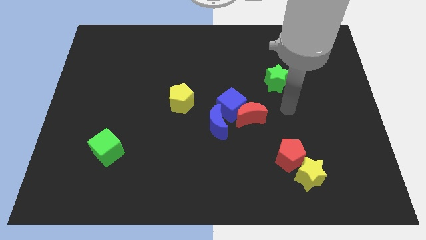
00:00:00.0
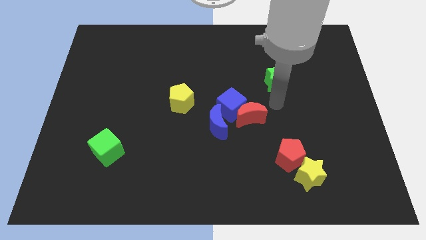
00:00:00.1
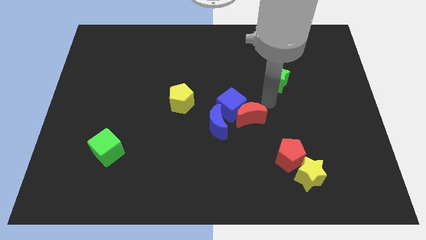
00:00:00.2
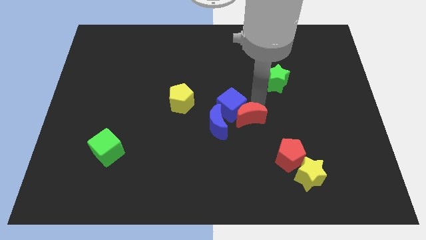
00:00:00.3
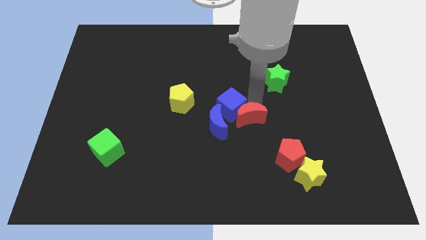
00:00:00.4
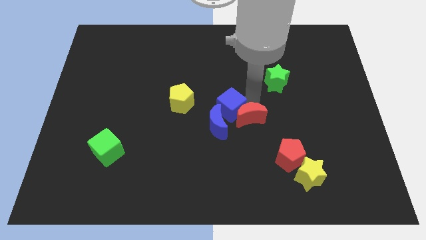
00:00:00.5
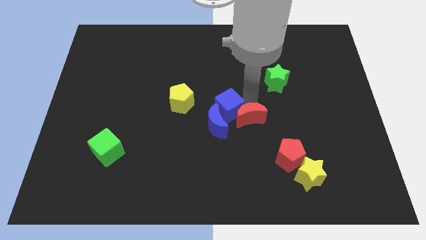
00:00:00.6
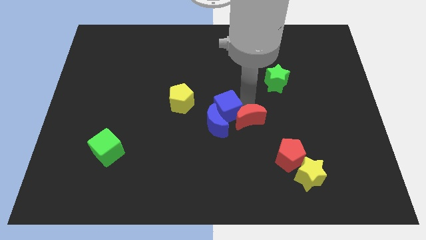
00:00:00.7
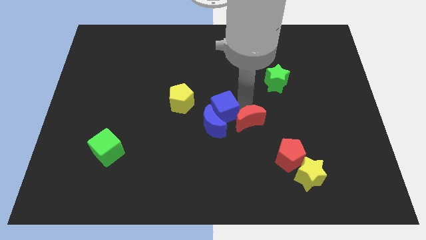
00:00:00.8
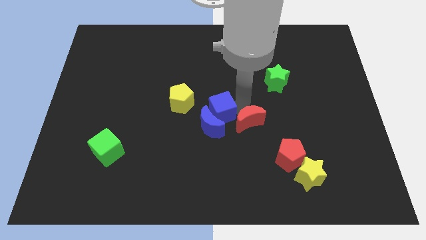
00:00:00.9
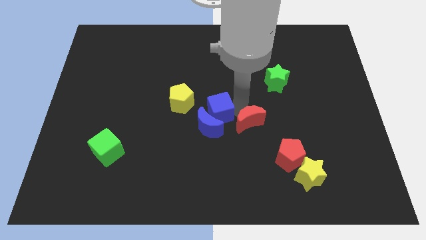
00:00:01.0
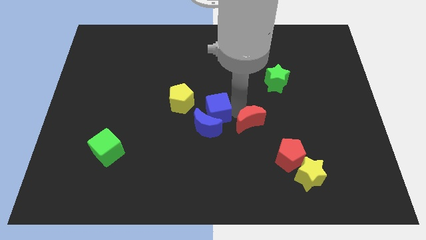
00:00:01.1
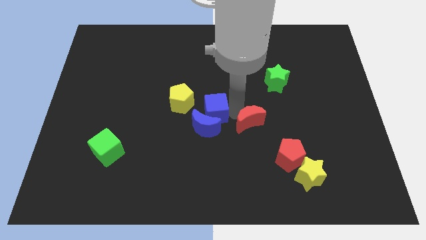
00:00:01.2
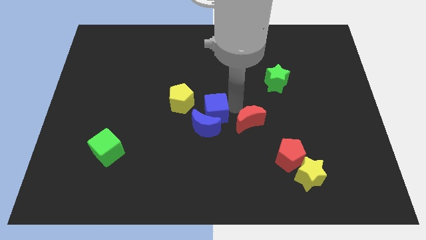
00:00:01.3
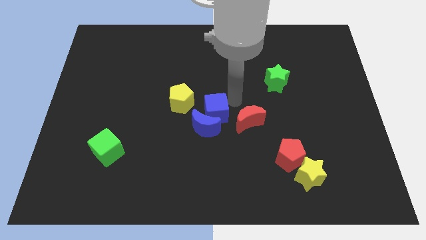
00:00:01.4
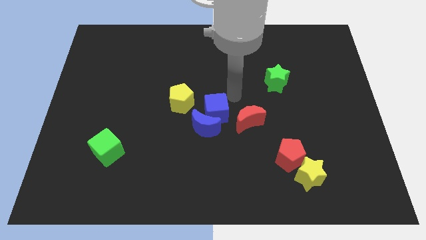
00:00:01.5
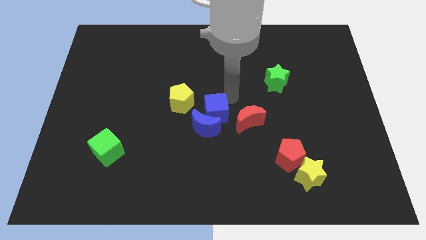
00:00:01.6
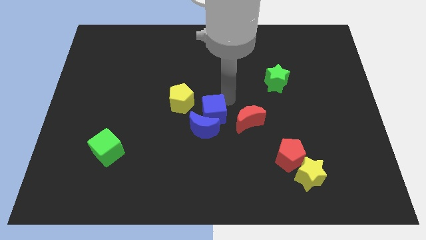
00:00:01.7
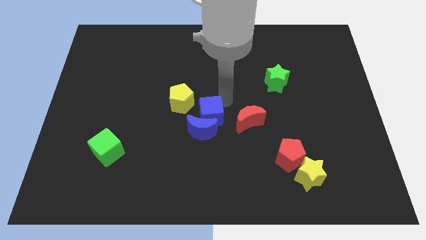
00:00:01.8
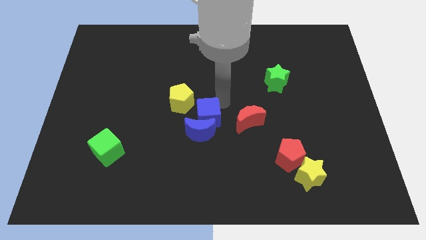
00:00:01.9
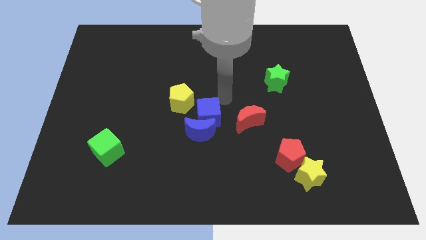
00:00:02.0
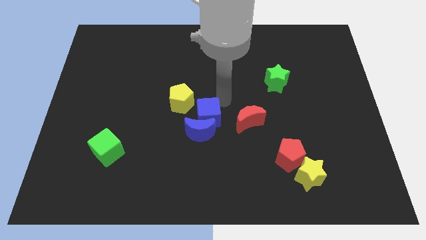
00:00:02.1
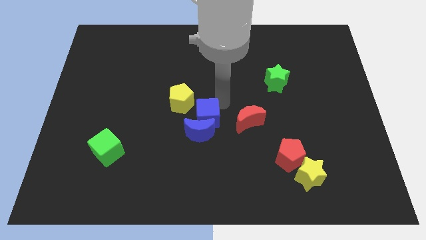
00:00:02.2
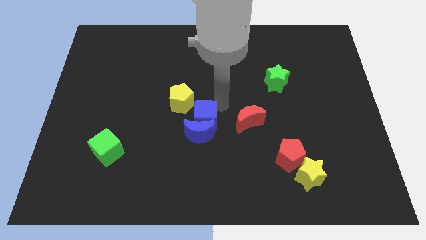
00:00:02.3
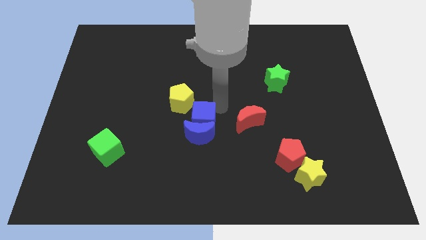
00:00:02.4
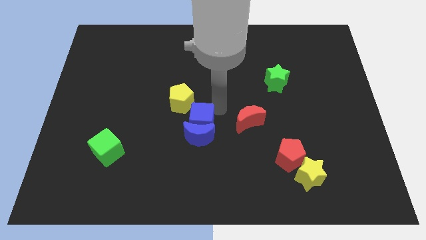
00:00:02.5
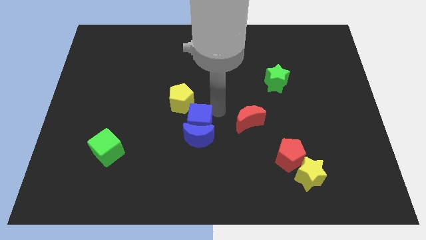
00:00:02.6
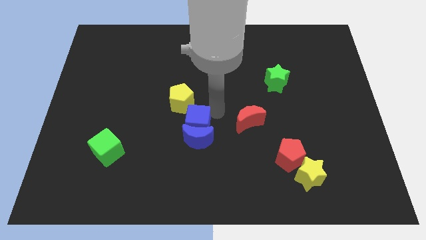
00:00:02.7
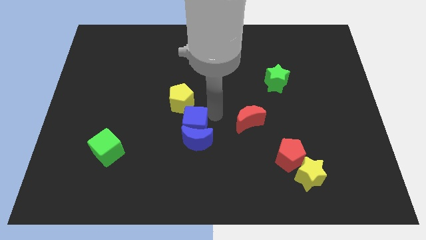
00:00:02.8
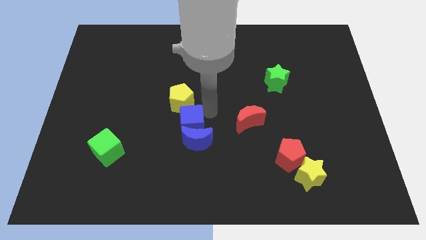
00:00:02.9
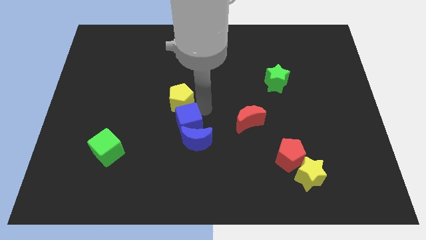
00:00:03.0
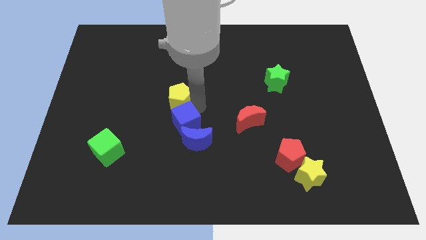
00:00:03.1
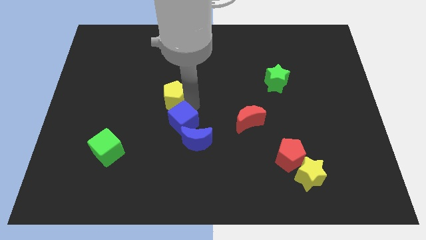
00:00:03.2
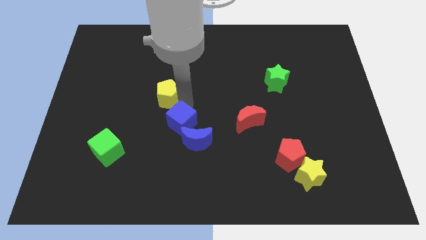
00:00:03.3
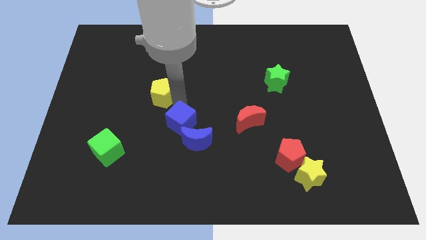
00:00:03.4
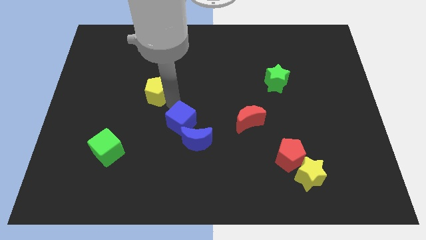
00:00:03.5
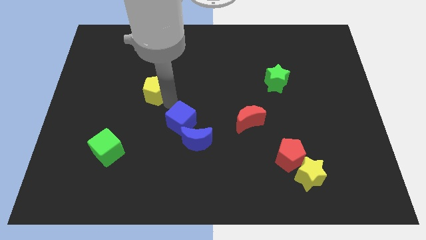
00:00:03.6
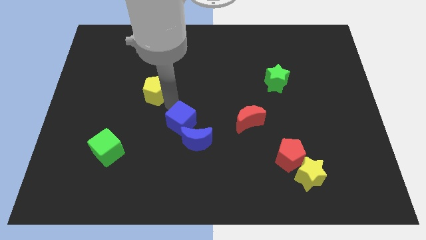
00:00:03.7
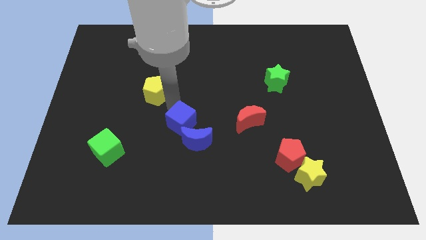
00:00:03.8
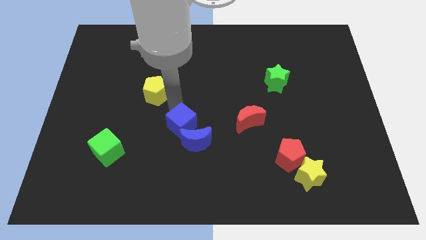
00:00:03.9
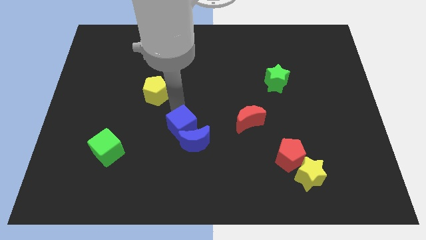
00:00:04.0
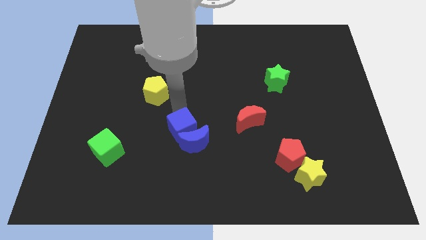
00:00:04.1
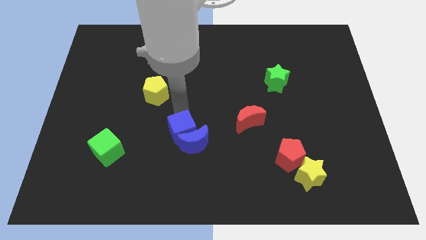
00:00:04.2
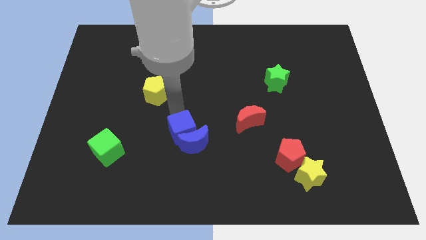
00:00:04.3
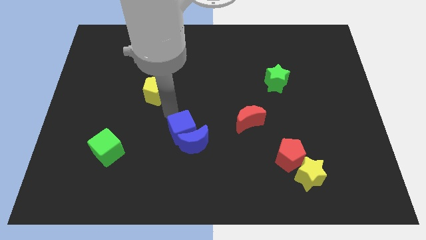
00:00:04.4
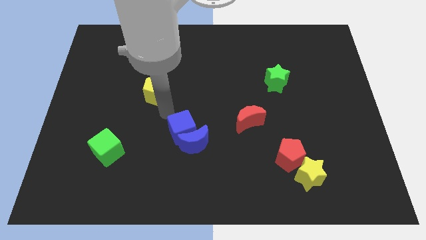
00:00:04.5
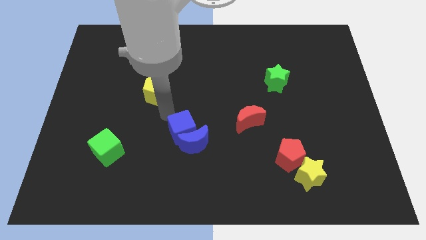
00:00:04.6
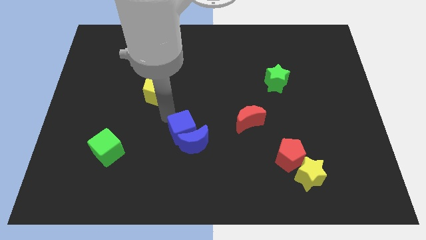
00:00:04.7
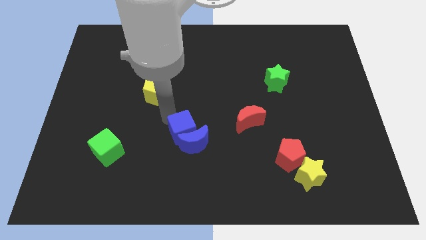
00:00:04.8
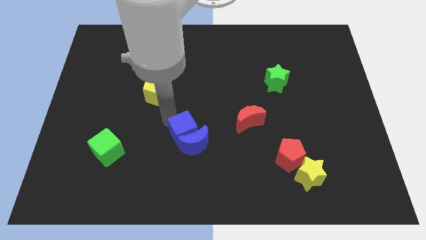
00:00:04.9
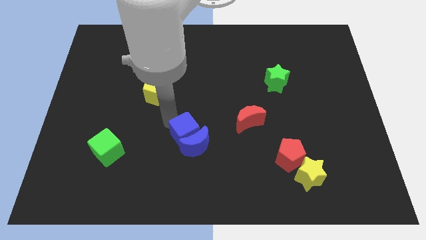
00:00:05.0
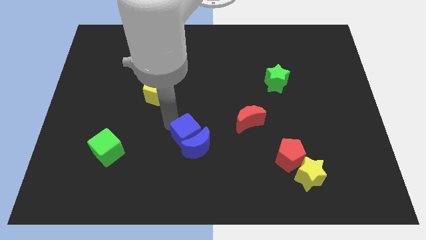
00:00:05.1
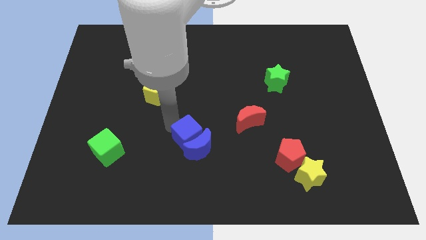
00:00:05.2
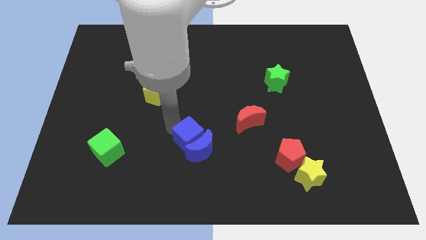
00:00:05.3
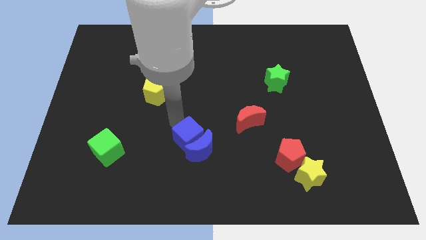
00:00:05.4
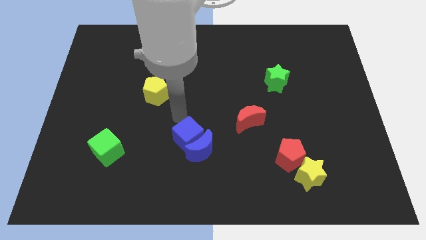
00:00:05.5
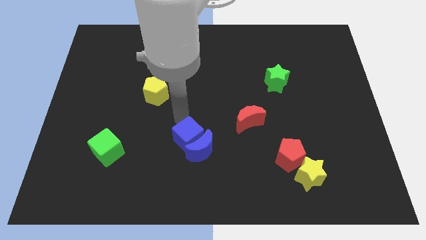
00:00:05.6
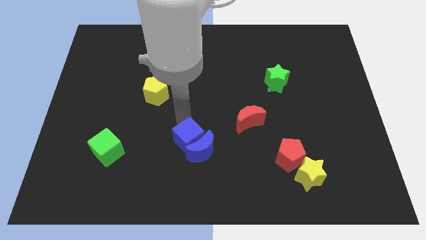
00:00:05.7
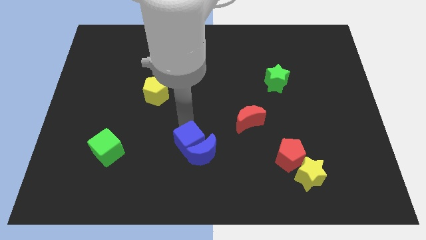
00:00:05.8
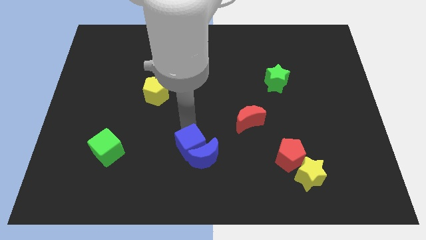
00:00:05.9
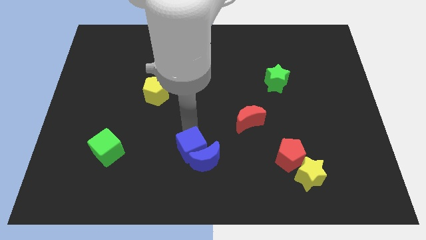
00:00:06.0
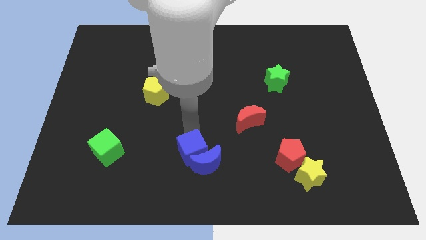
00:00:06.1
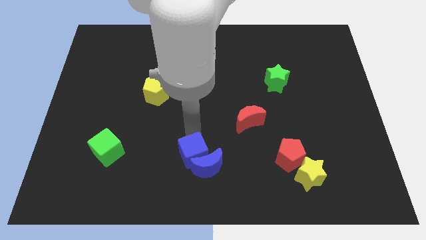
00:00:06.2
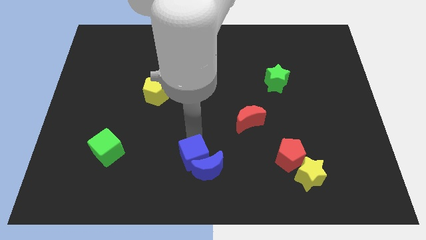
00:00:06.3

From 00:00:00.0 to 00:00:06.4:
put the blue cube to the bottom side

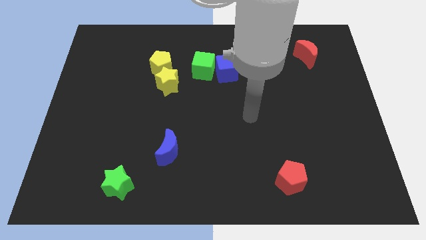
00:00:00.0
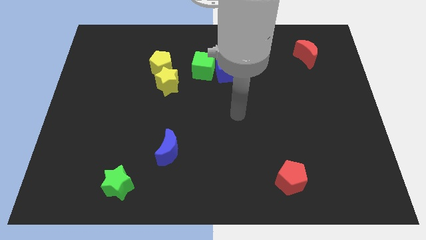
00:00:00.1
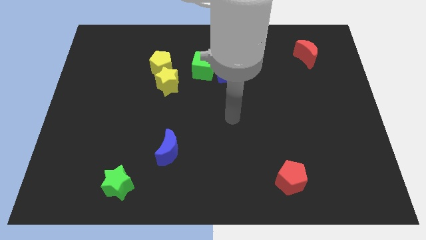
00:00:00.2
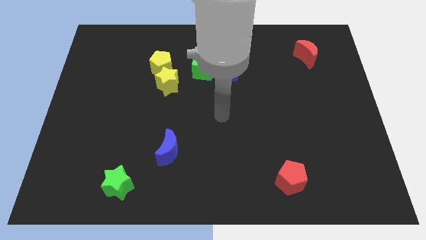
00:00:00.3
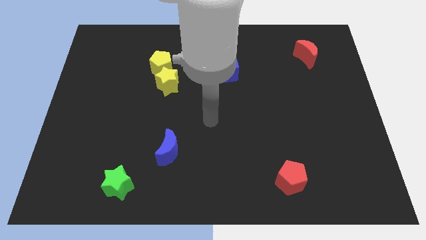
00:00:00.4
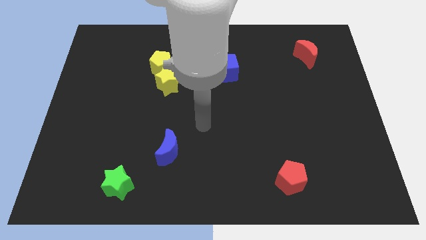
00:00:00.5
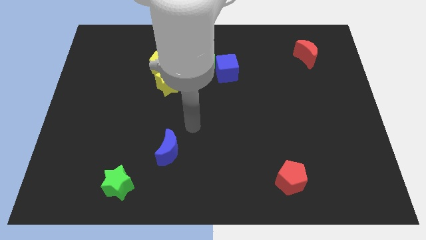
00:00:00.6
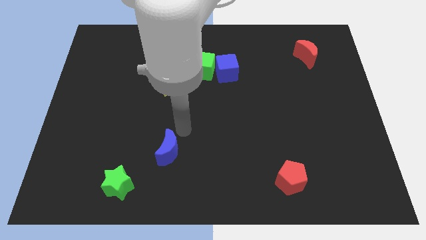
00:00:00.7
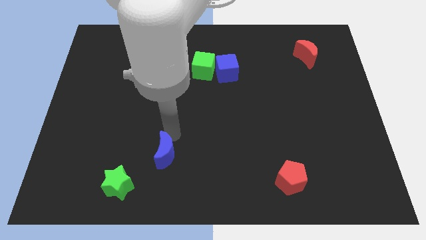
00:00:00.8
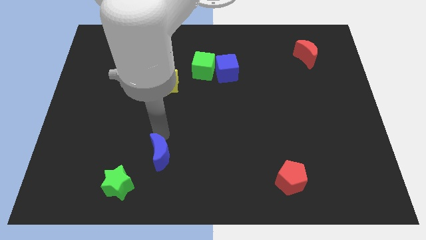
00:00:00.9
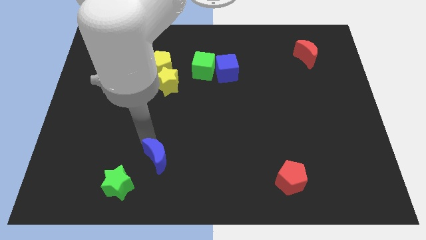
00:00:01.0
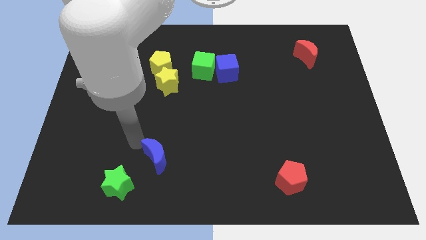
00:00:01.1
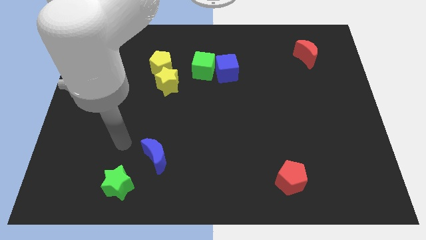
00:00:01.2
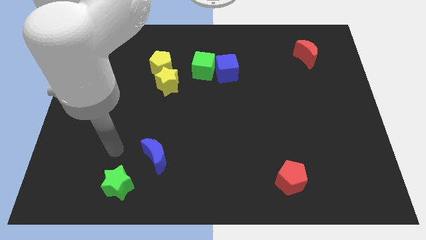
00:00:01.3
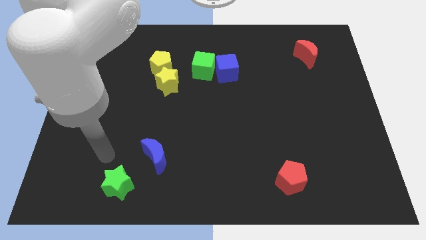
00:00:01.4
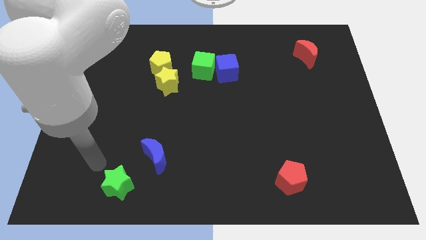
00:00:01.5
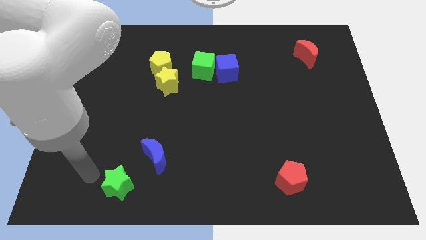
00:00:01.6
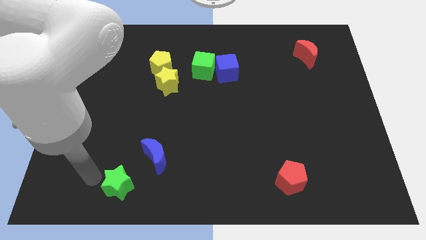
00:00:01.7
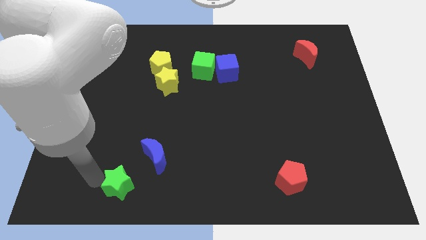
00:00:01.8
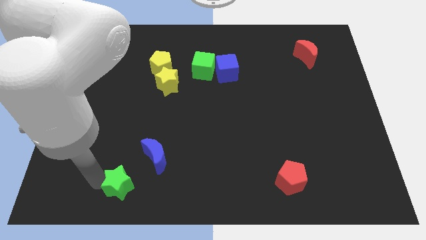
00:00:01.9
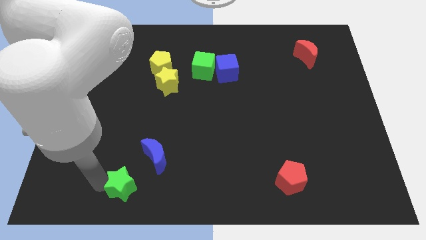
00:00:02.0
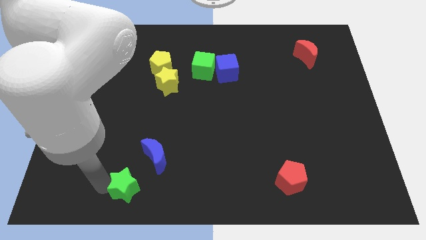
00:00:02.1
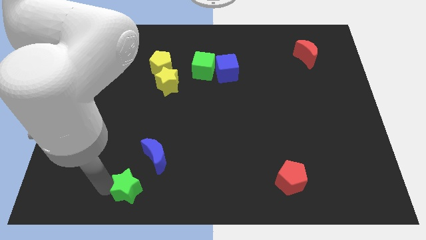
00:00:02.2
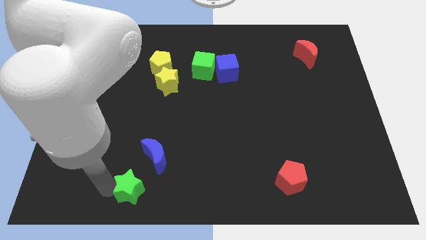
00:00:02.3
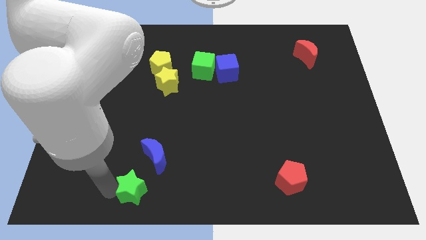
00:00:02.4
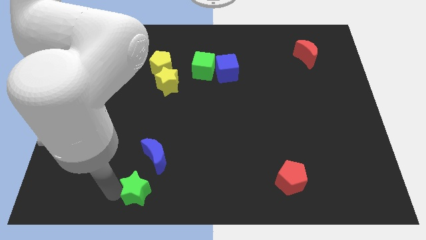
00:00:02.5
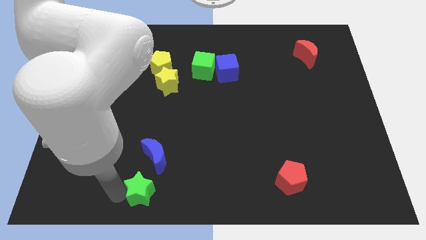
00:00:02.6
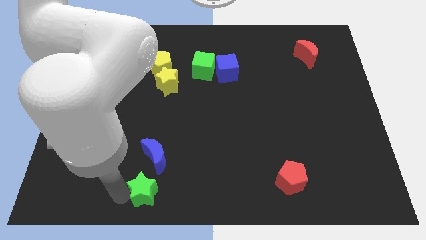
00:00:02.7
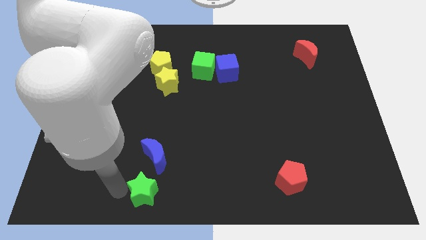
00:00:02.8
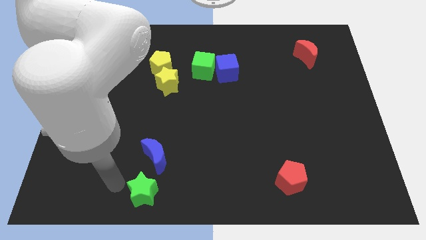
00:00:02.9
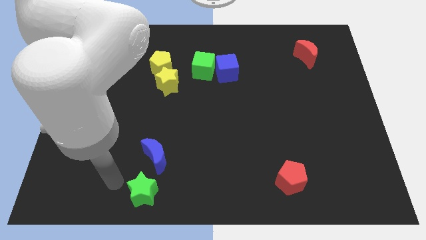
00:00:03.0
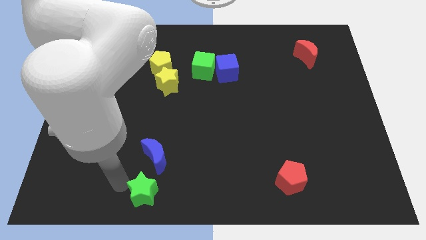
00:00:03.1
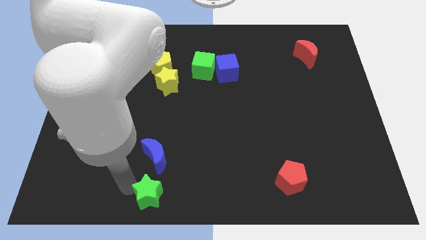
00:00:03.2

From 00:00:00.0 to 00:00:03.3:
push the green star to the bottom
